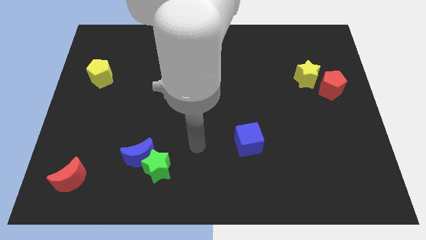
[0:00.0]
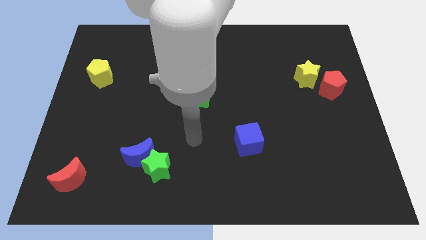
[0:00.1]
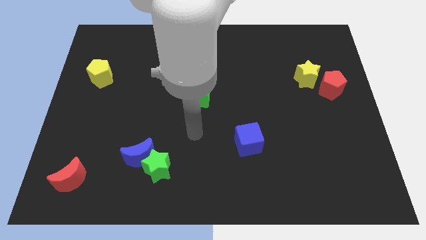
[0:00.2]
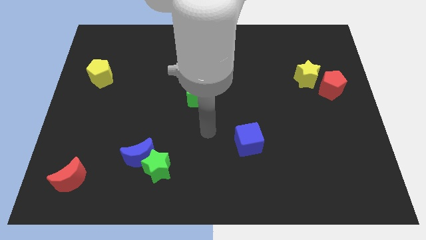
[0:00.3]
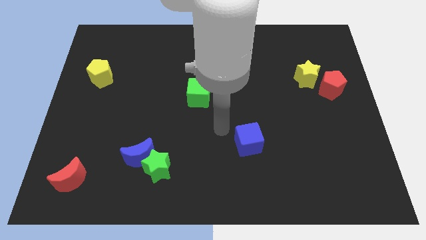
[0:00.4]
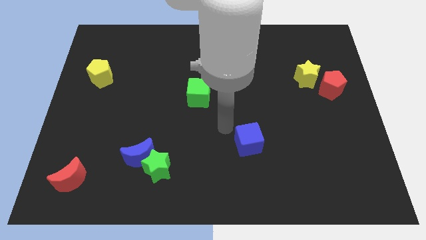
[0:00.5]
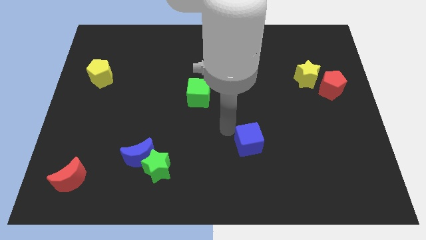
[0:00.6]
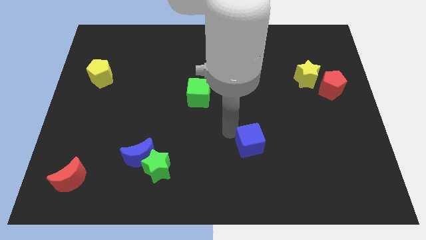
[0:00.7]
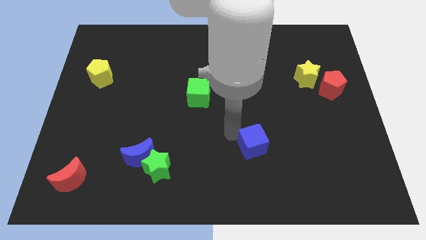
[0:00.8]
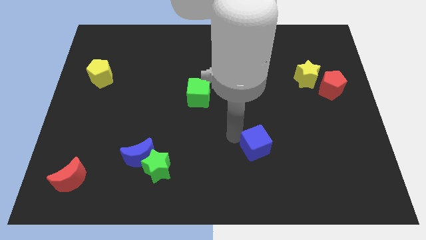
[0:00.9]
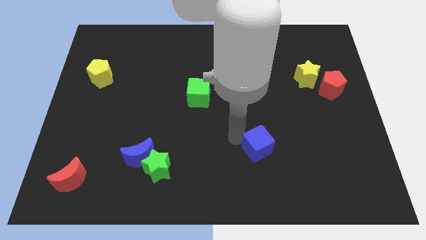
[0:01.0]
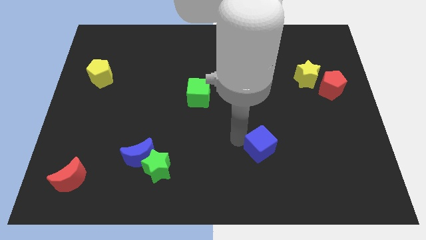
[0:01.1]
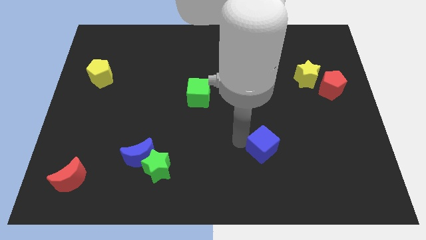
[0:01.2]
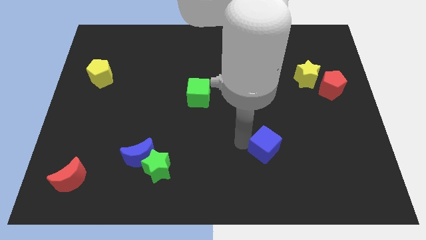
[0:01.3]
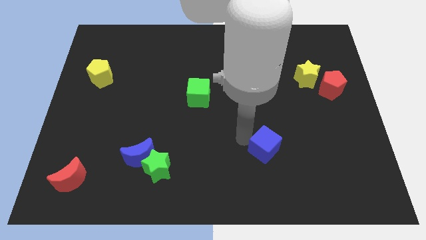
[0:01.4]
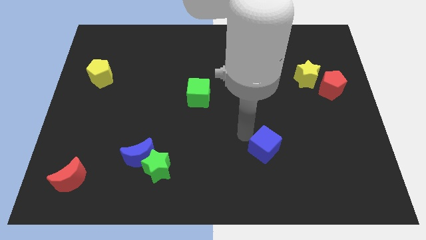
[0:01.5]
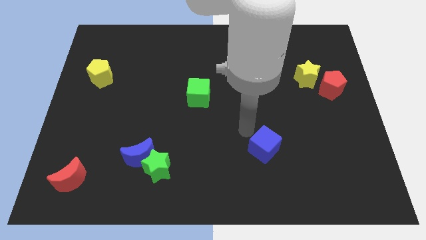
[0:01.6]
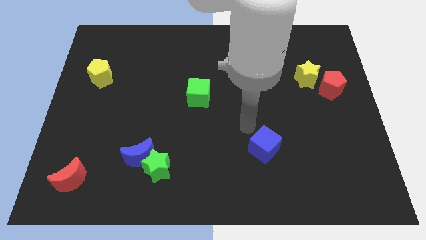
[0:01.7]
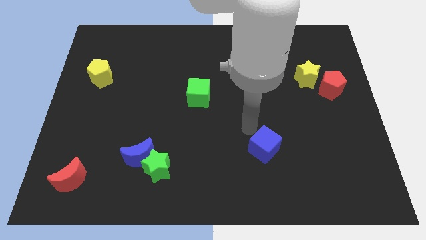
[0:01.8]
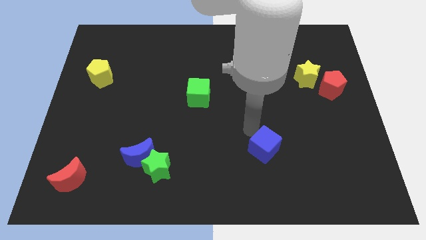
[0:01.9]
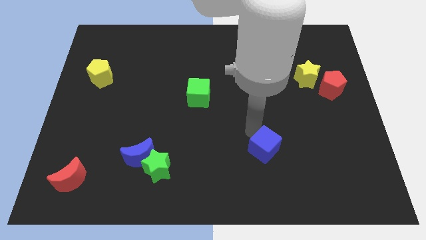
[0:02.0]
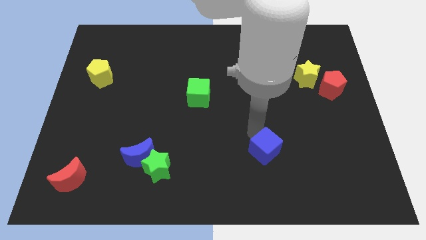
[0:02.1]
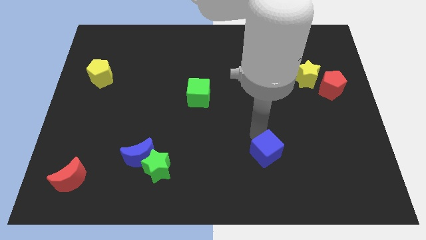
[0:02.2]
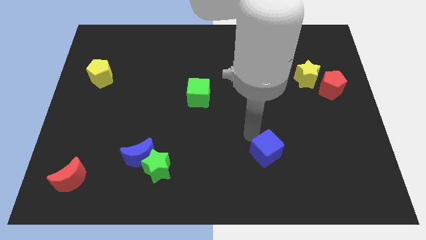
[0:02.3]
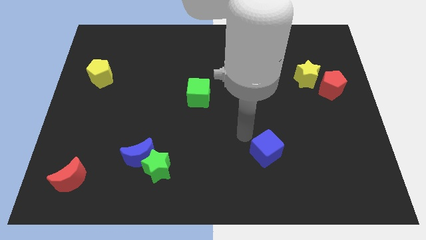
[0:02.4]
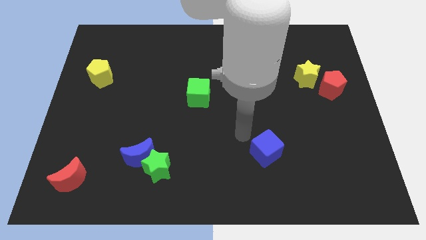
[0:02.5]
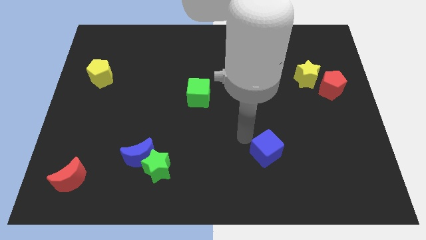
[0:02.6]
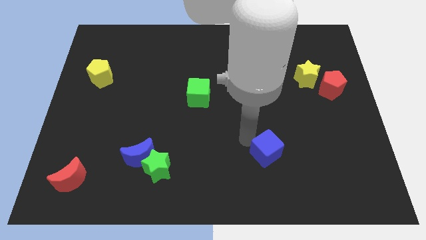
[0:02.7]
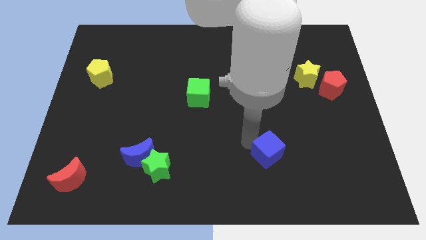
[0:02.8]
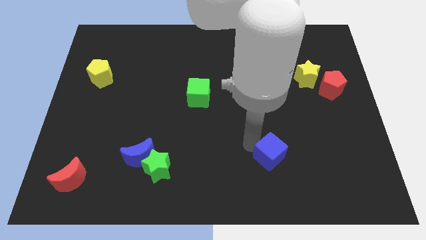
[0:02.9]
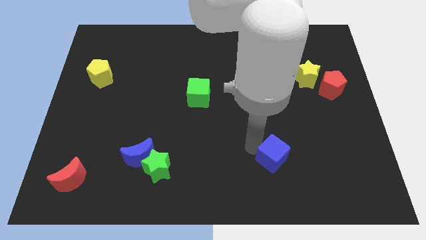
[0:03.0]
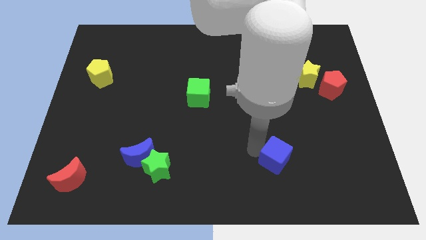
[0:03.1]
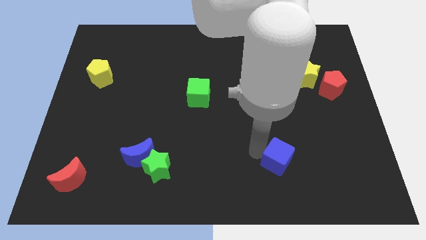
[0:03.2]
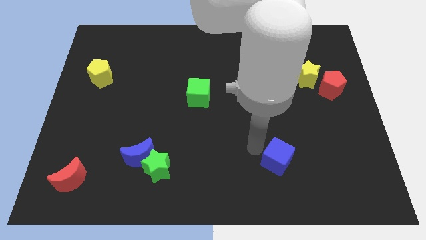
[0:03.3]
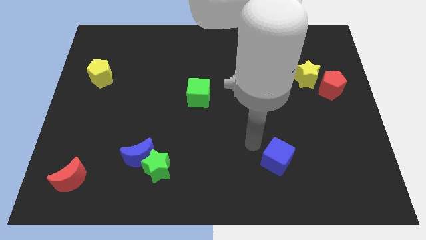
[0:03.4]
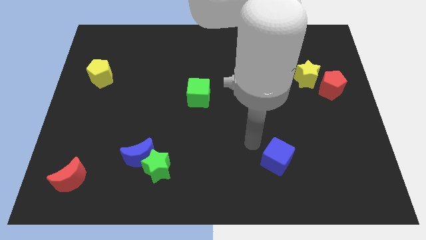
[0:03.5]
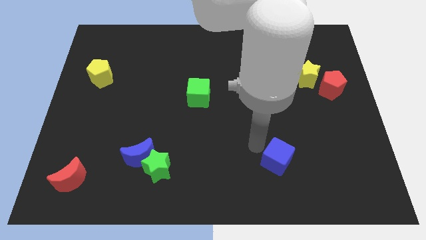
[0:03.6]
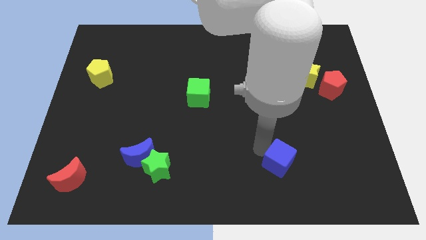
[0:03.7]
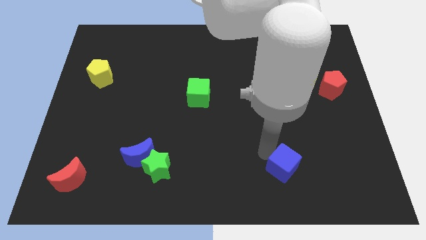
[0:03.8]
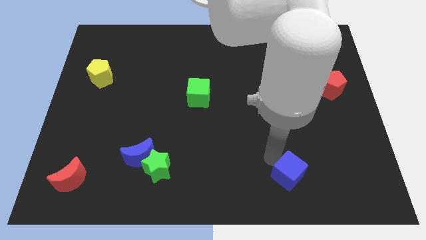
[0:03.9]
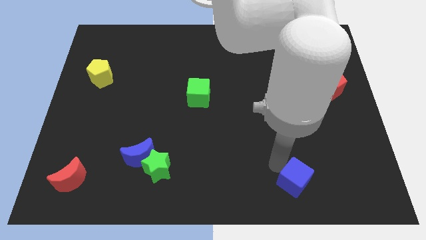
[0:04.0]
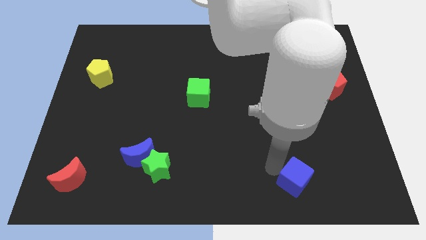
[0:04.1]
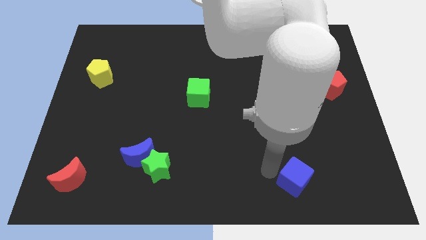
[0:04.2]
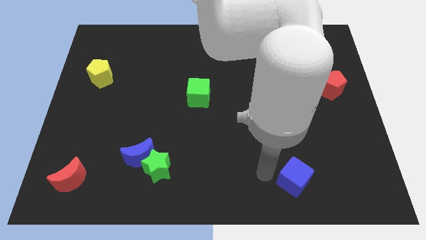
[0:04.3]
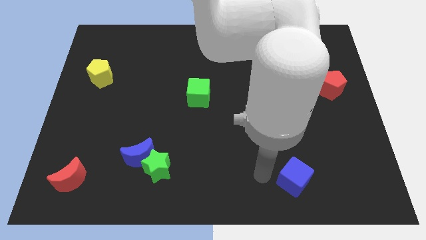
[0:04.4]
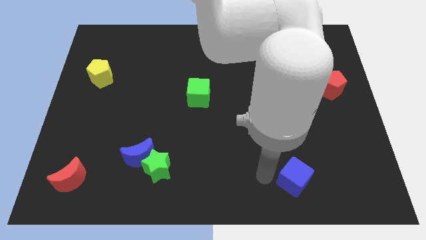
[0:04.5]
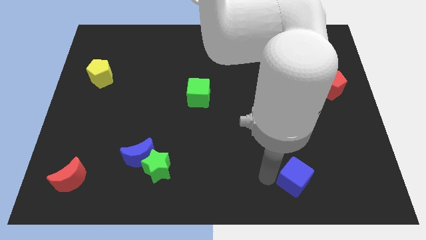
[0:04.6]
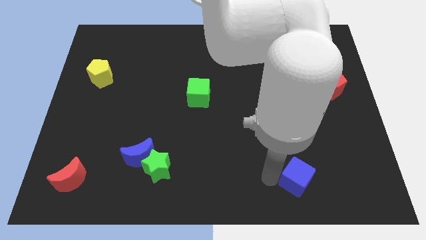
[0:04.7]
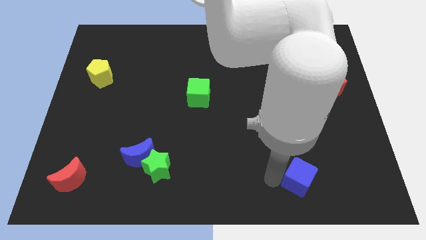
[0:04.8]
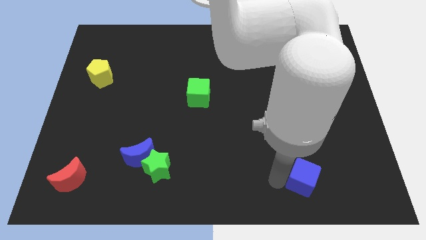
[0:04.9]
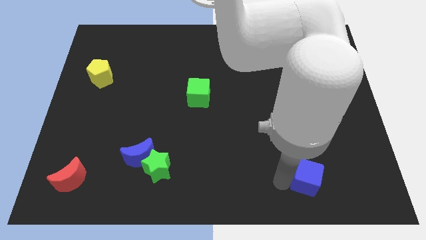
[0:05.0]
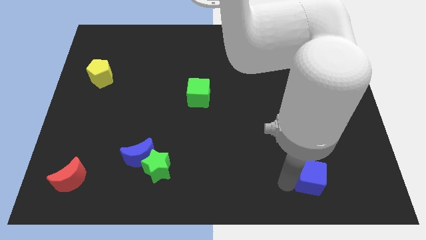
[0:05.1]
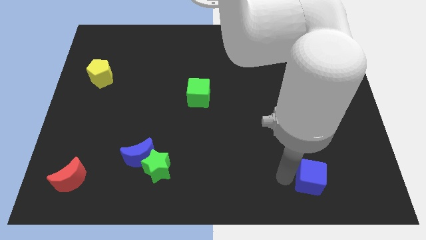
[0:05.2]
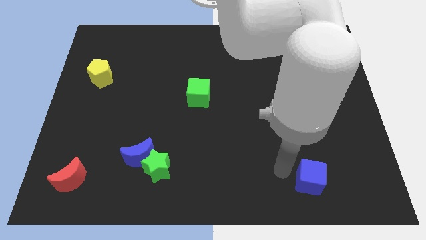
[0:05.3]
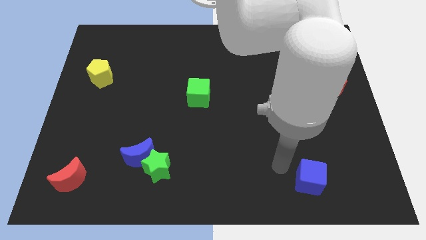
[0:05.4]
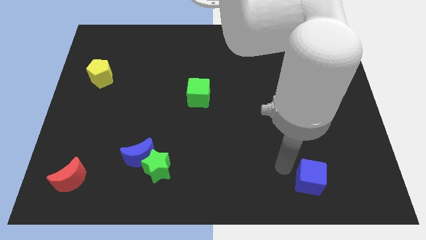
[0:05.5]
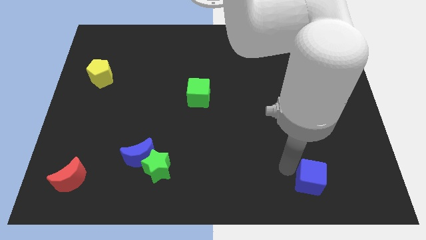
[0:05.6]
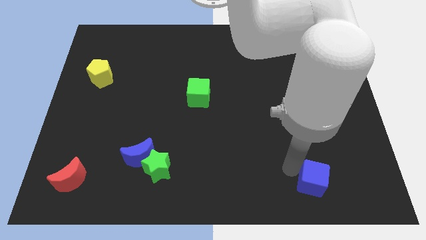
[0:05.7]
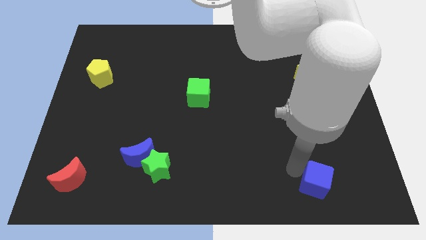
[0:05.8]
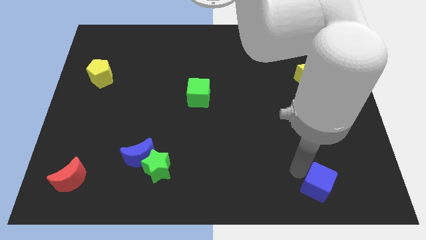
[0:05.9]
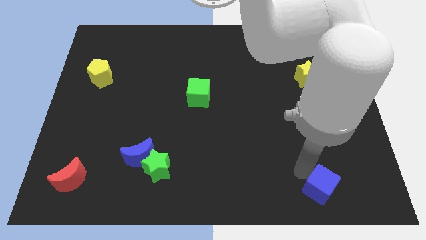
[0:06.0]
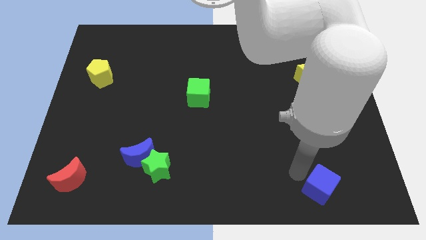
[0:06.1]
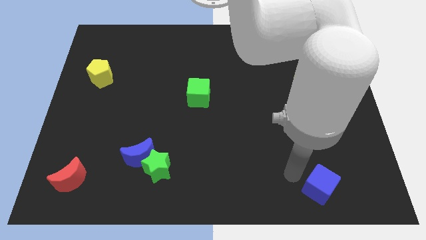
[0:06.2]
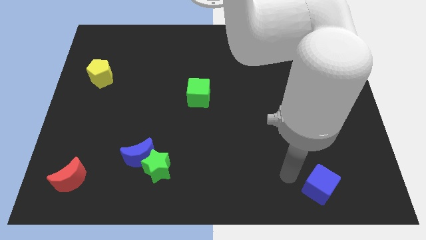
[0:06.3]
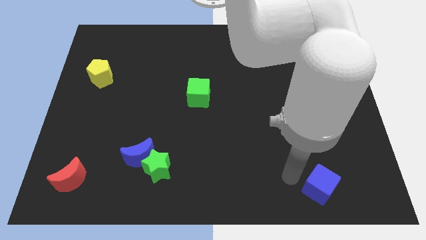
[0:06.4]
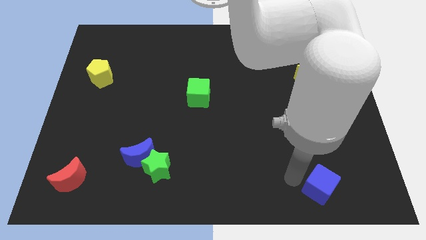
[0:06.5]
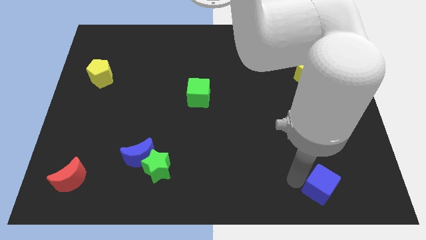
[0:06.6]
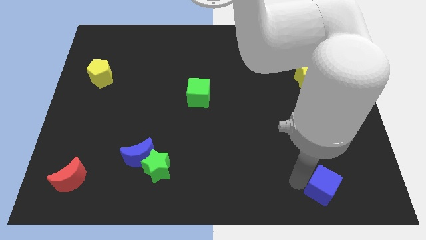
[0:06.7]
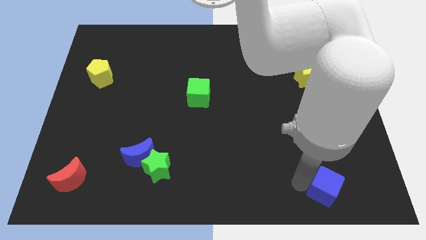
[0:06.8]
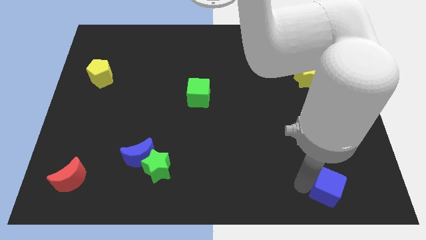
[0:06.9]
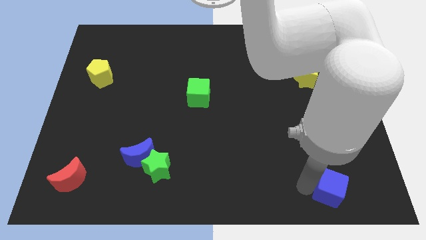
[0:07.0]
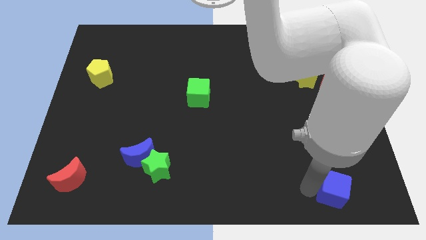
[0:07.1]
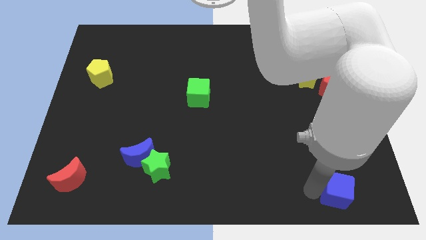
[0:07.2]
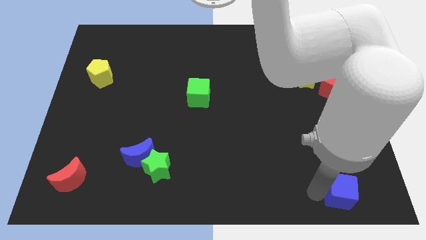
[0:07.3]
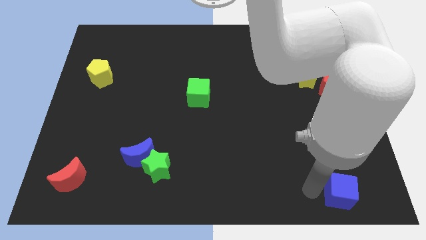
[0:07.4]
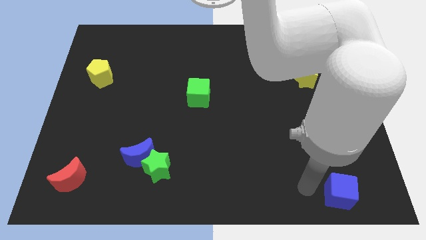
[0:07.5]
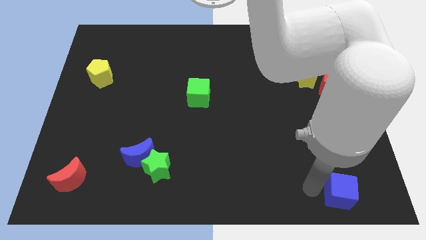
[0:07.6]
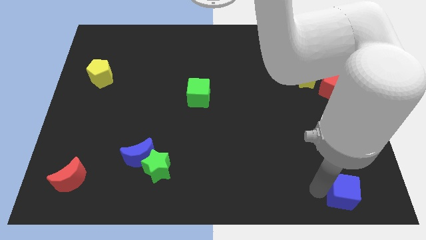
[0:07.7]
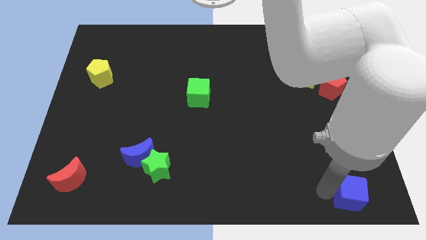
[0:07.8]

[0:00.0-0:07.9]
put the blue cube to the bottom right
